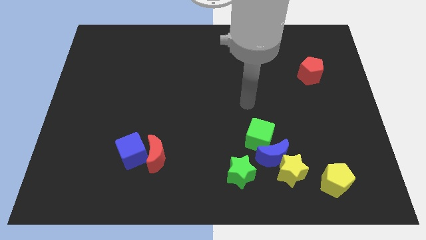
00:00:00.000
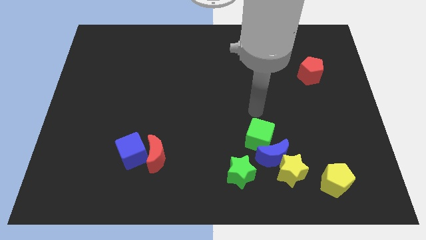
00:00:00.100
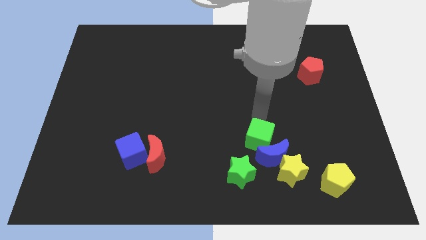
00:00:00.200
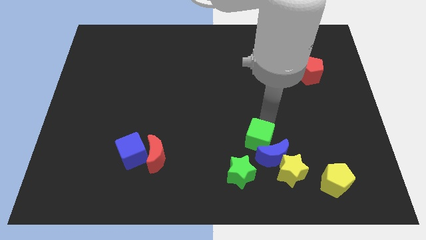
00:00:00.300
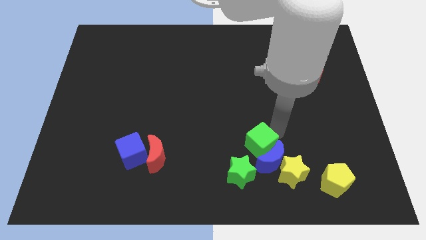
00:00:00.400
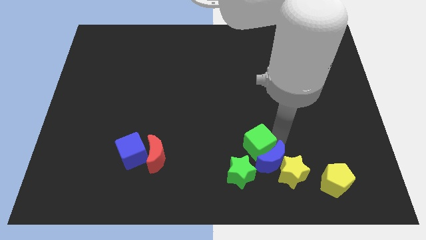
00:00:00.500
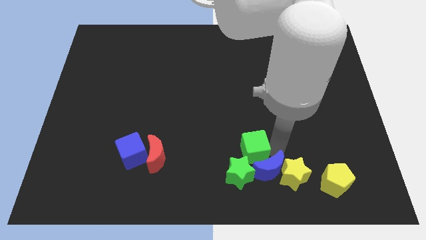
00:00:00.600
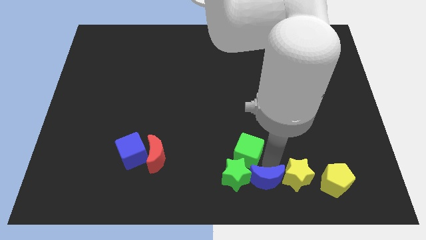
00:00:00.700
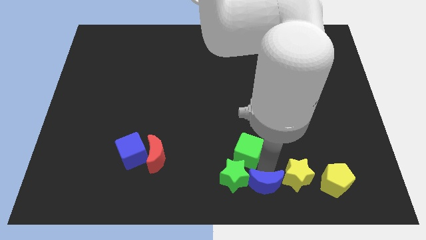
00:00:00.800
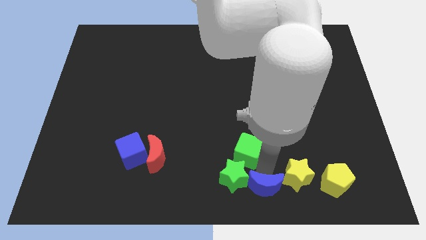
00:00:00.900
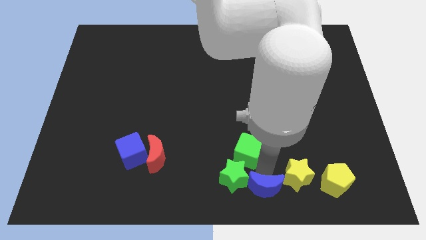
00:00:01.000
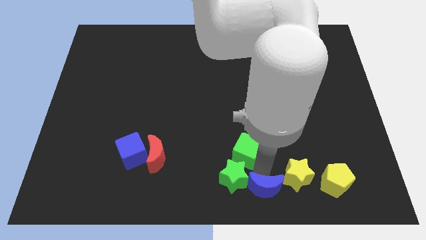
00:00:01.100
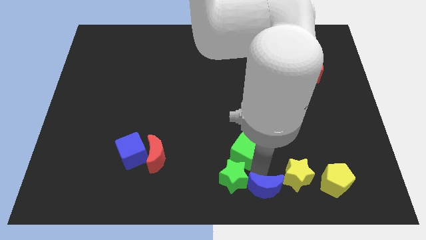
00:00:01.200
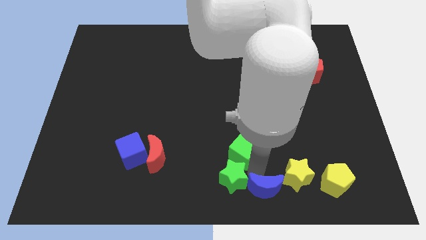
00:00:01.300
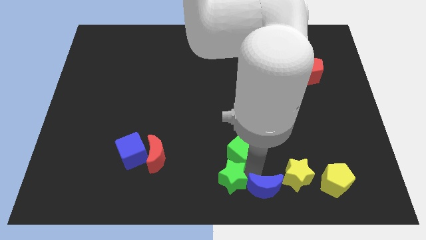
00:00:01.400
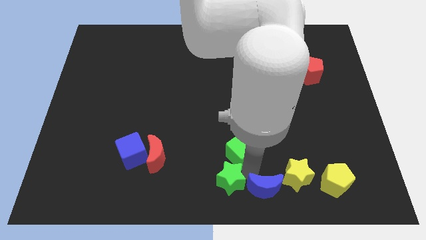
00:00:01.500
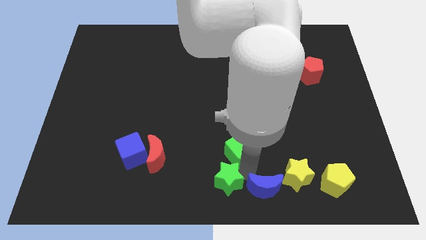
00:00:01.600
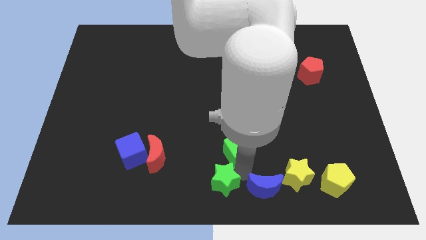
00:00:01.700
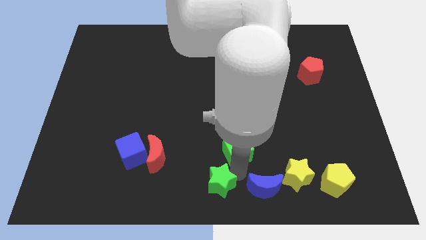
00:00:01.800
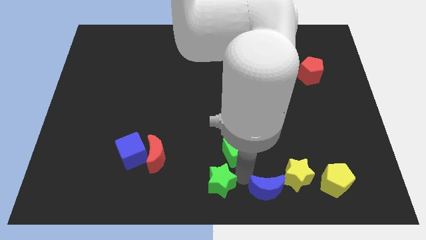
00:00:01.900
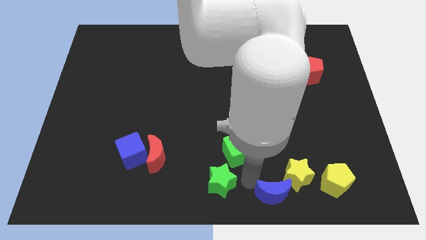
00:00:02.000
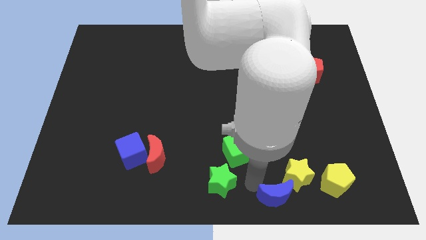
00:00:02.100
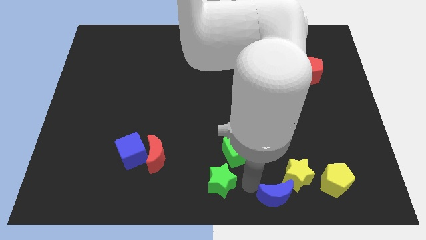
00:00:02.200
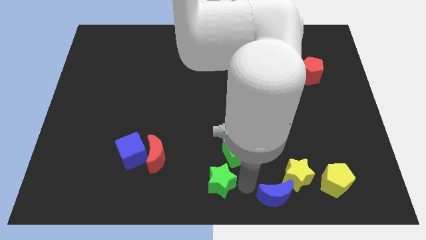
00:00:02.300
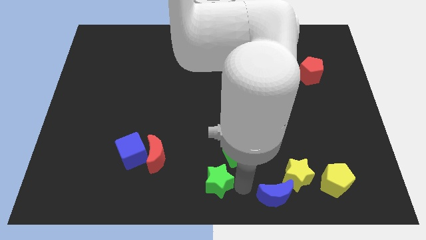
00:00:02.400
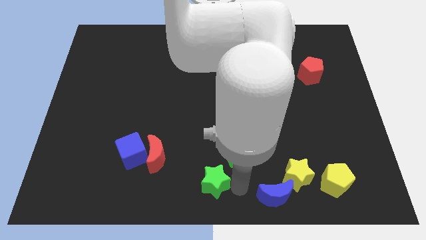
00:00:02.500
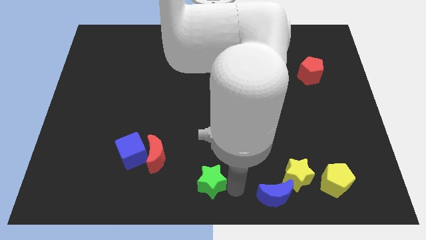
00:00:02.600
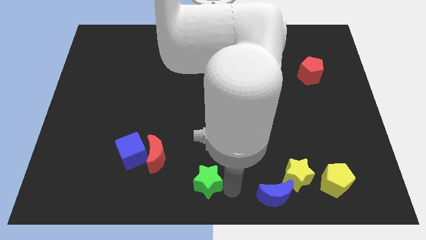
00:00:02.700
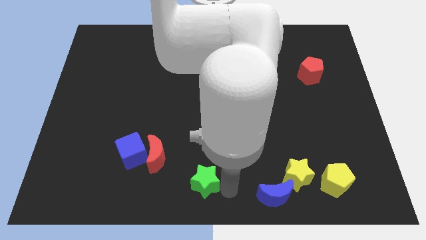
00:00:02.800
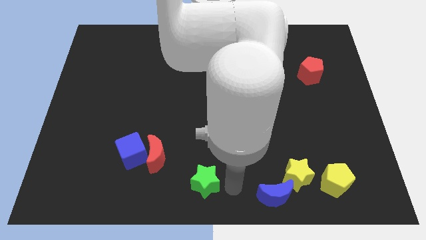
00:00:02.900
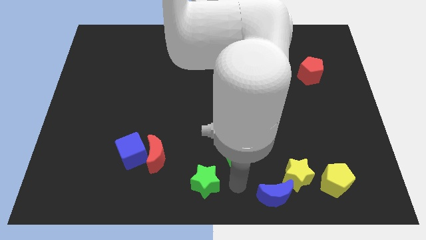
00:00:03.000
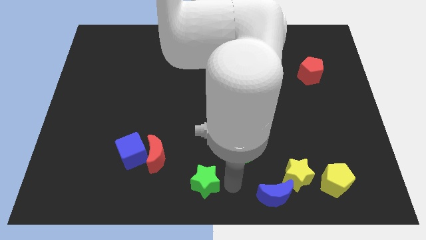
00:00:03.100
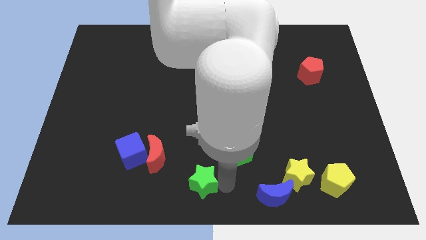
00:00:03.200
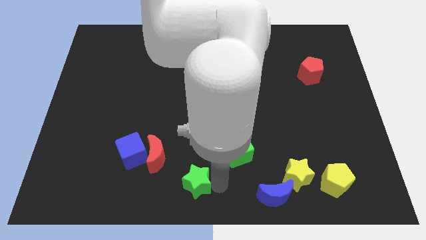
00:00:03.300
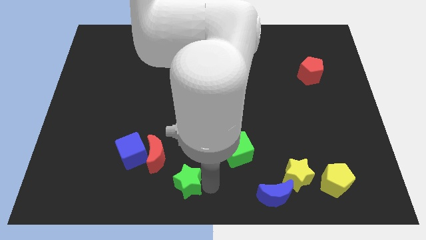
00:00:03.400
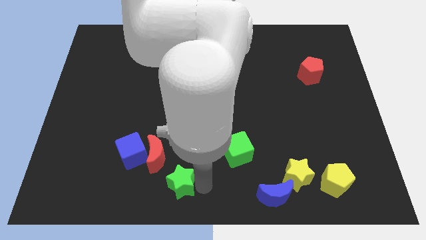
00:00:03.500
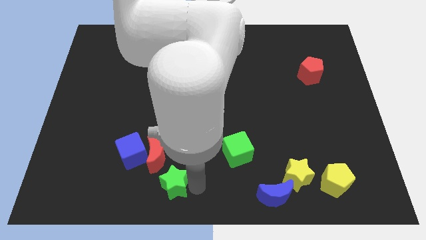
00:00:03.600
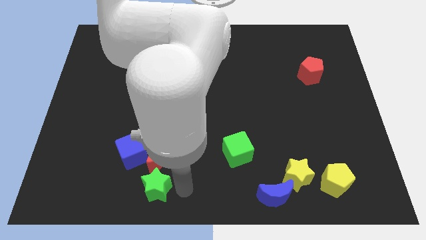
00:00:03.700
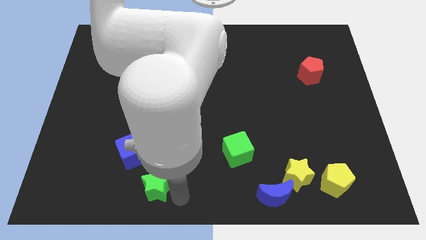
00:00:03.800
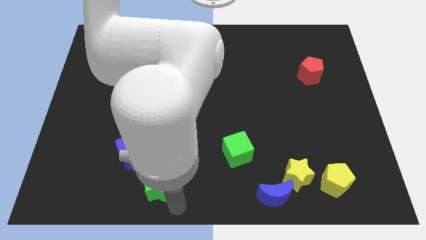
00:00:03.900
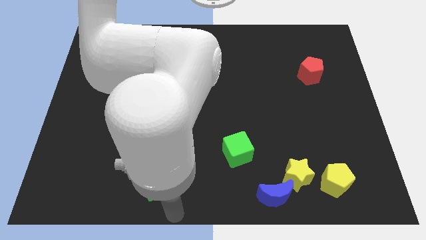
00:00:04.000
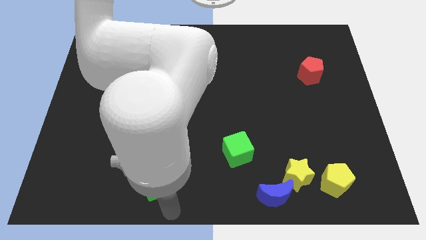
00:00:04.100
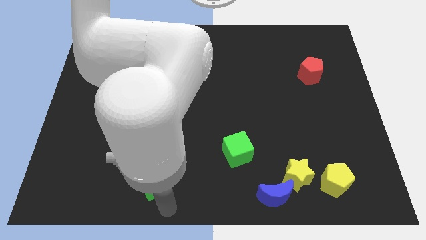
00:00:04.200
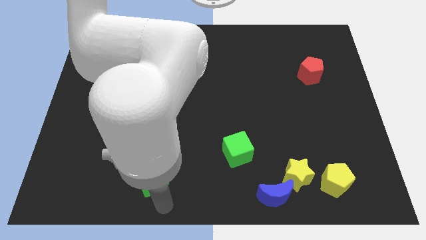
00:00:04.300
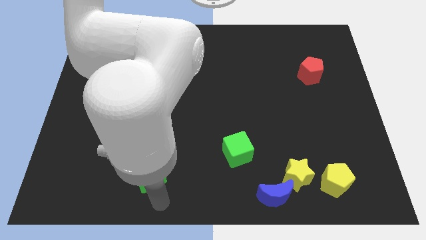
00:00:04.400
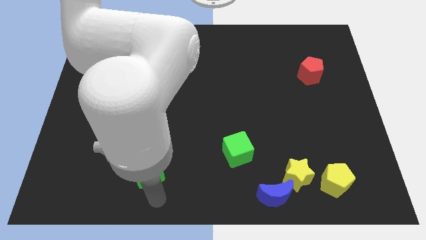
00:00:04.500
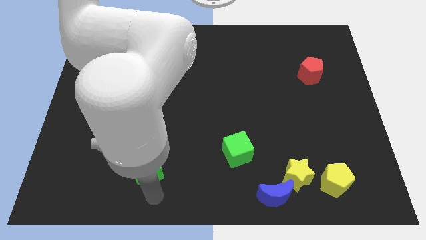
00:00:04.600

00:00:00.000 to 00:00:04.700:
move the green star to the blue cube

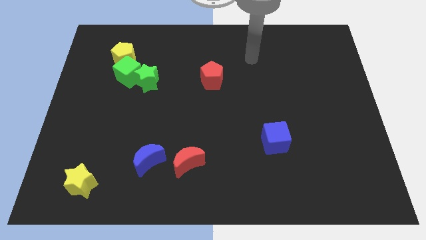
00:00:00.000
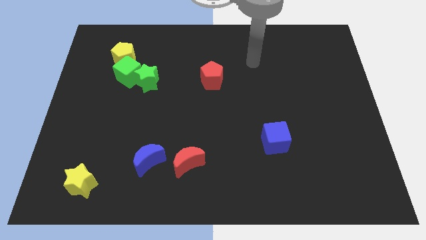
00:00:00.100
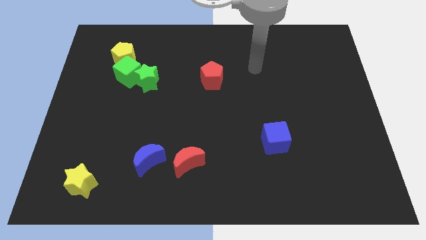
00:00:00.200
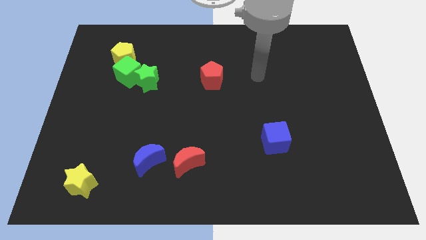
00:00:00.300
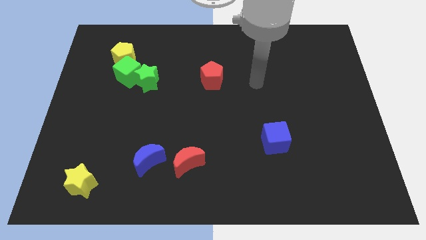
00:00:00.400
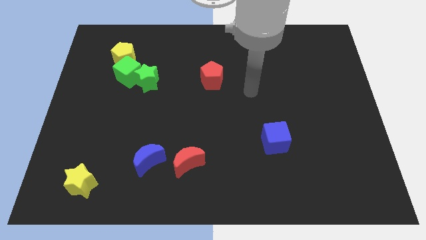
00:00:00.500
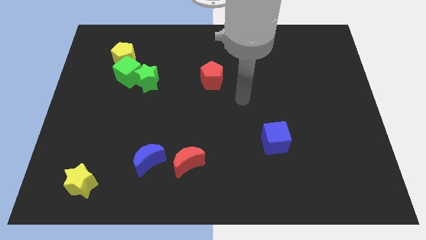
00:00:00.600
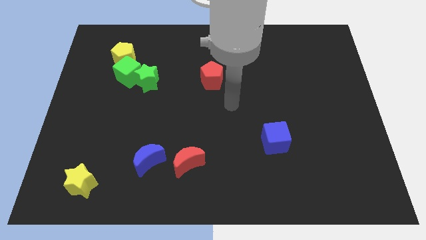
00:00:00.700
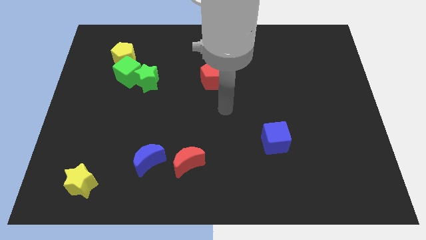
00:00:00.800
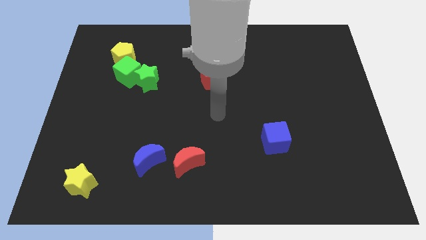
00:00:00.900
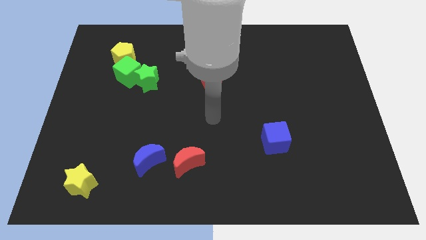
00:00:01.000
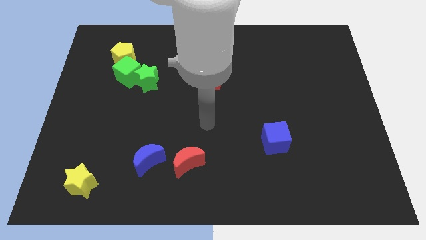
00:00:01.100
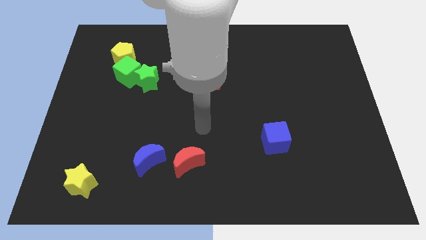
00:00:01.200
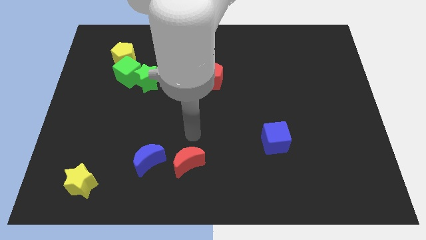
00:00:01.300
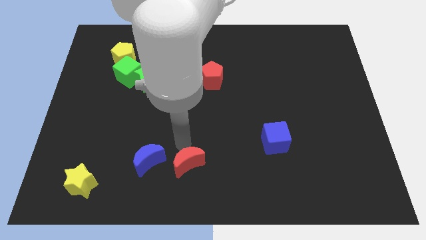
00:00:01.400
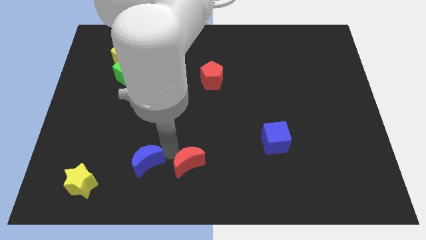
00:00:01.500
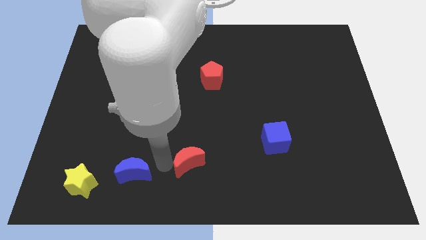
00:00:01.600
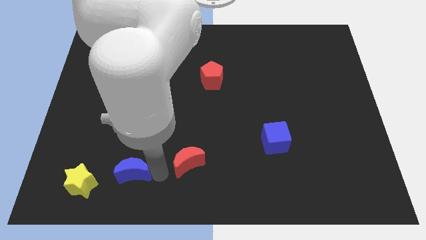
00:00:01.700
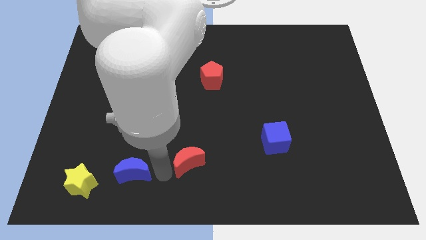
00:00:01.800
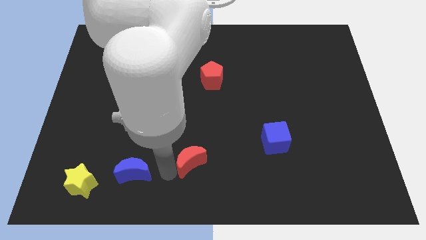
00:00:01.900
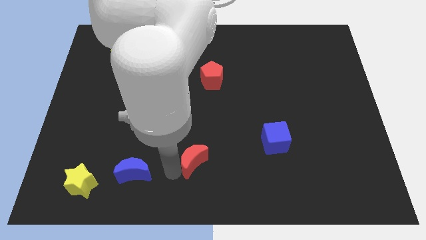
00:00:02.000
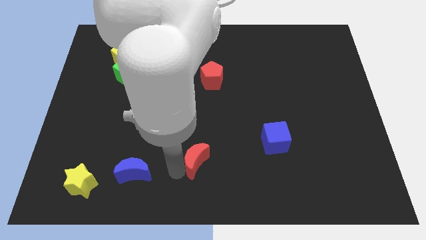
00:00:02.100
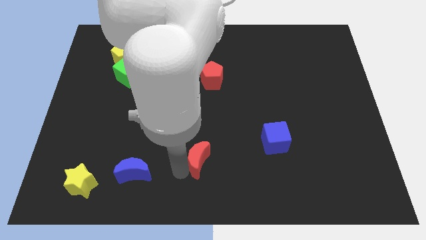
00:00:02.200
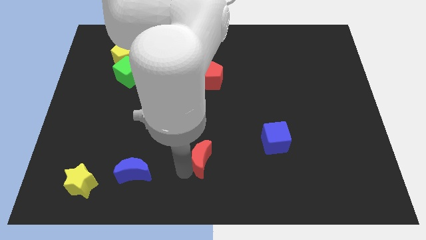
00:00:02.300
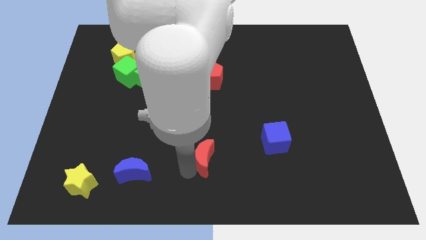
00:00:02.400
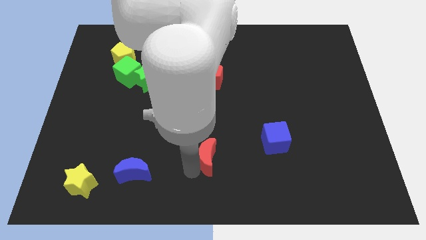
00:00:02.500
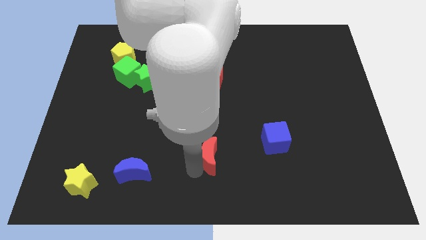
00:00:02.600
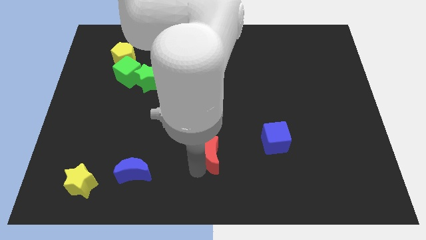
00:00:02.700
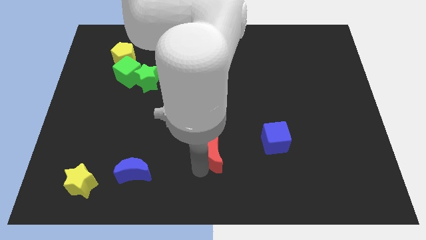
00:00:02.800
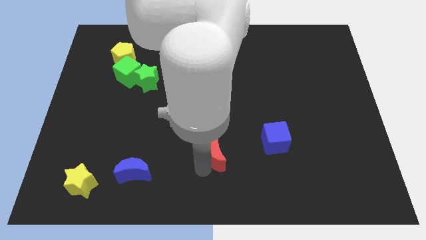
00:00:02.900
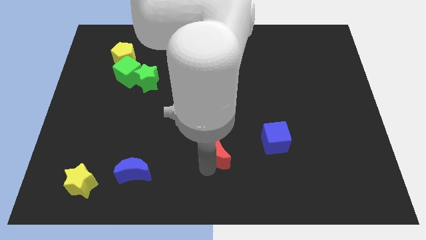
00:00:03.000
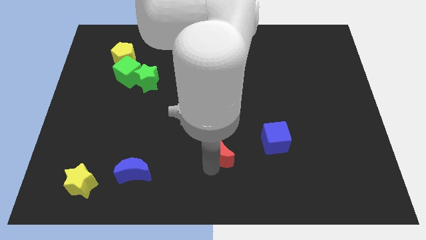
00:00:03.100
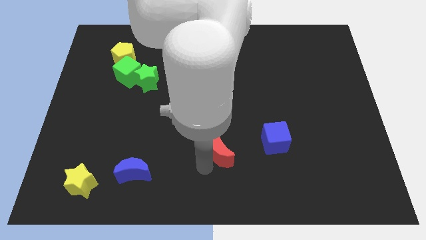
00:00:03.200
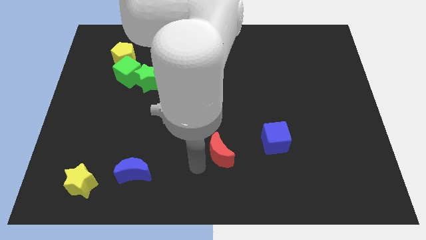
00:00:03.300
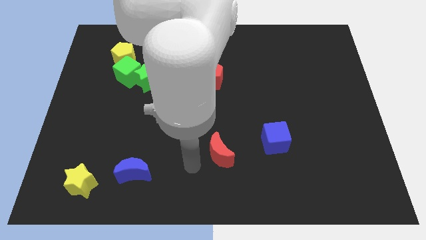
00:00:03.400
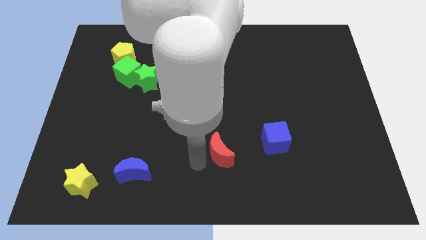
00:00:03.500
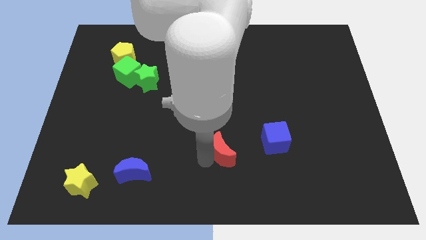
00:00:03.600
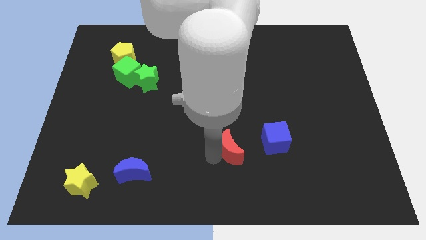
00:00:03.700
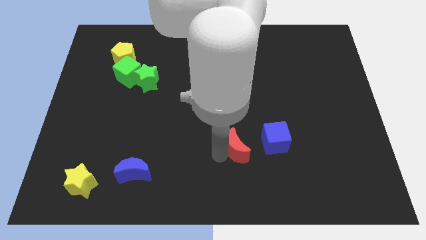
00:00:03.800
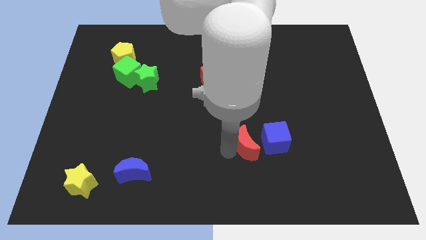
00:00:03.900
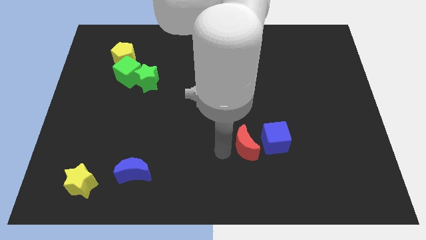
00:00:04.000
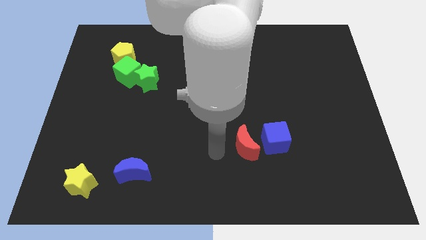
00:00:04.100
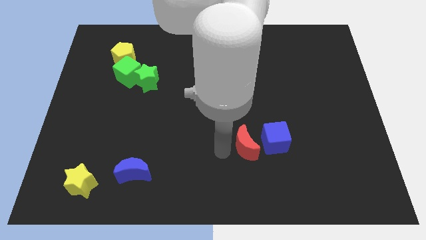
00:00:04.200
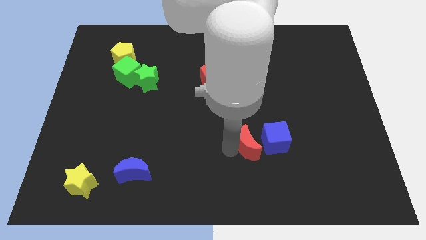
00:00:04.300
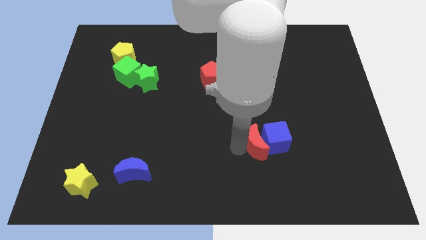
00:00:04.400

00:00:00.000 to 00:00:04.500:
move the red moon close to the blue cube
